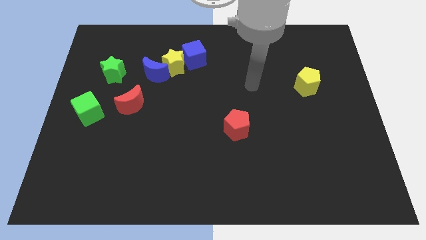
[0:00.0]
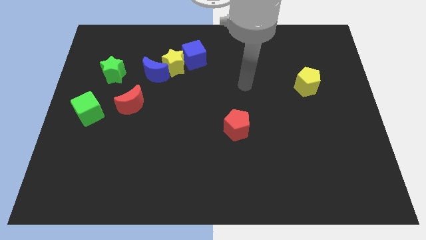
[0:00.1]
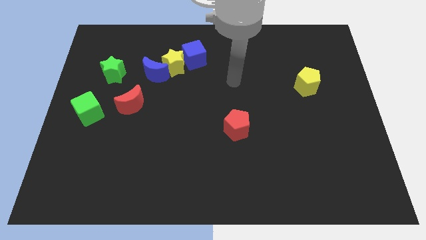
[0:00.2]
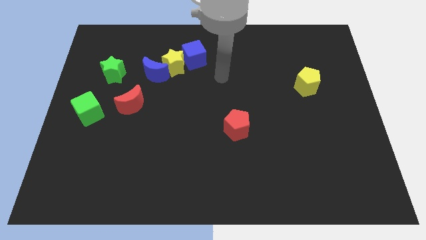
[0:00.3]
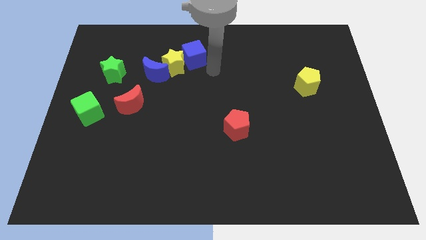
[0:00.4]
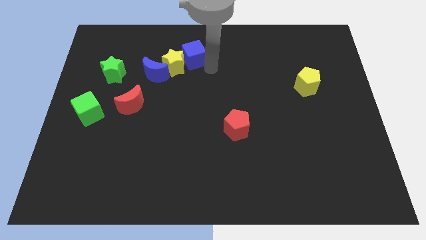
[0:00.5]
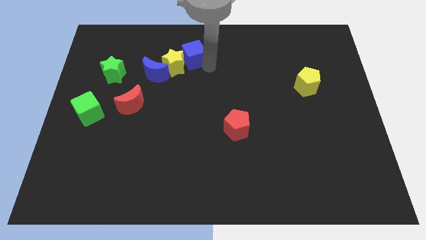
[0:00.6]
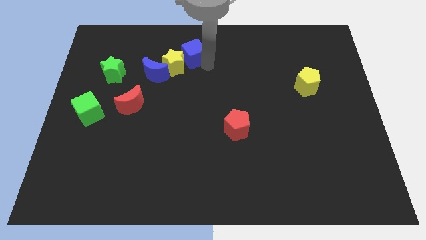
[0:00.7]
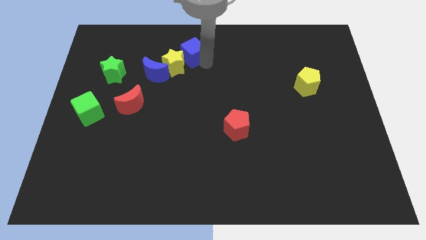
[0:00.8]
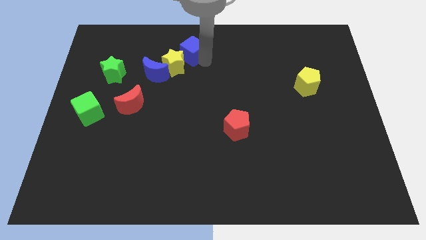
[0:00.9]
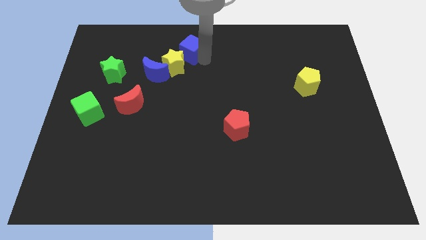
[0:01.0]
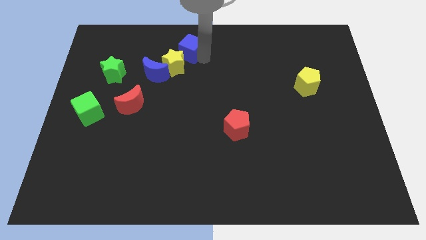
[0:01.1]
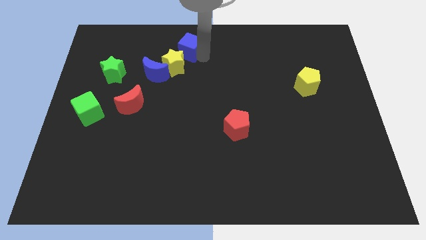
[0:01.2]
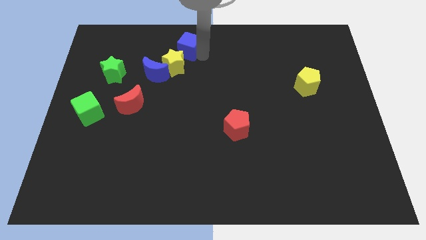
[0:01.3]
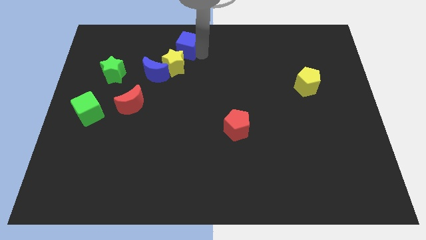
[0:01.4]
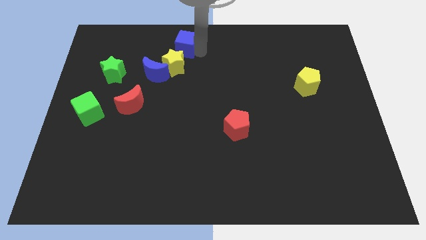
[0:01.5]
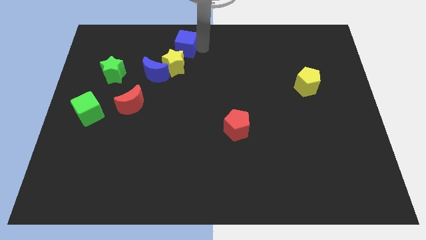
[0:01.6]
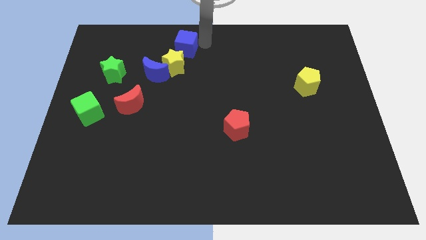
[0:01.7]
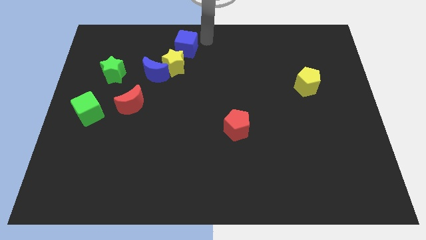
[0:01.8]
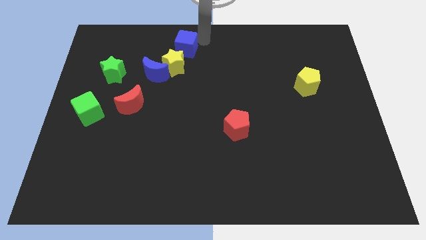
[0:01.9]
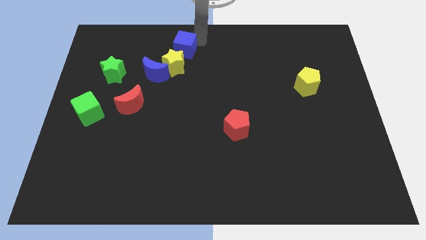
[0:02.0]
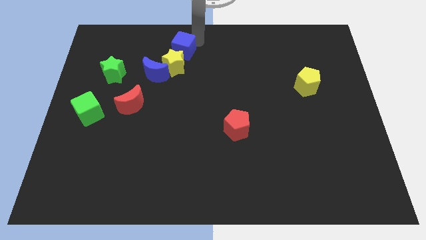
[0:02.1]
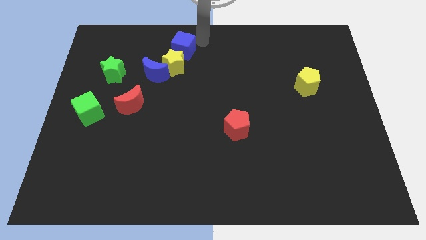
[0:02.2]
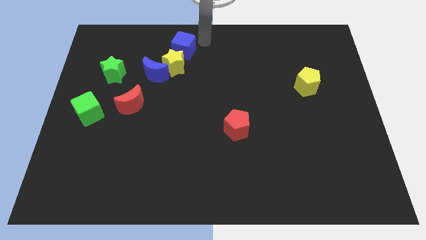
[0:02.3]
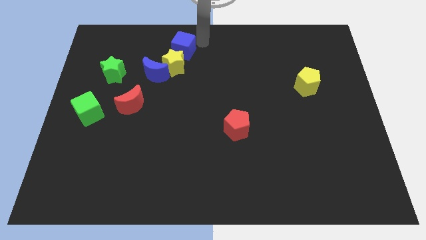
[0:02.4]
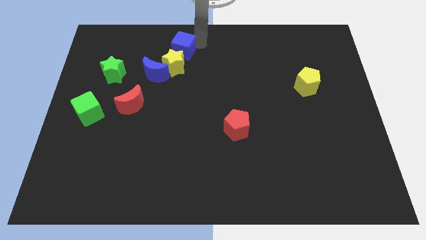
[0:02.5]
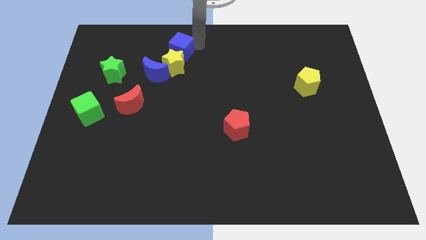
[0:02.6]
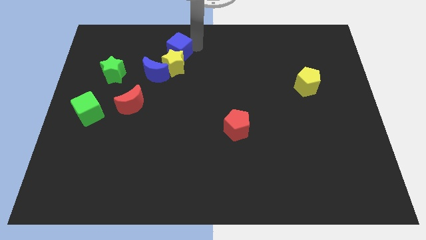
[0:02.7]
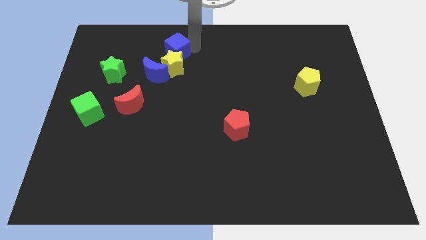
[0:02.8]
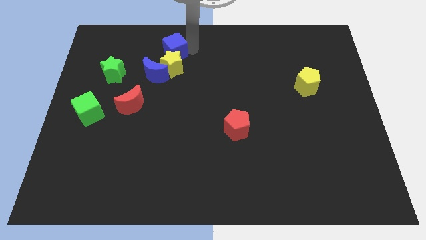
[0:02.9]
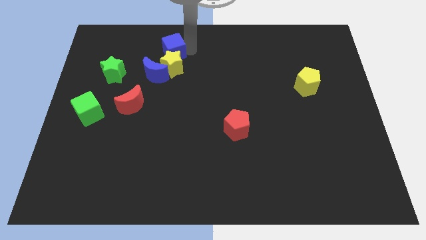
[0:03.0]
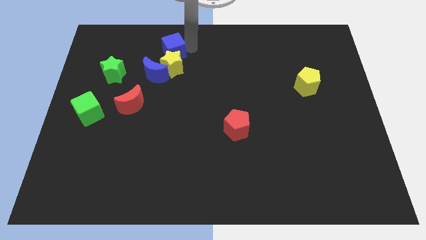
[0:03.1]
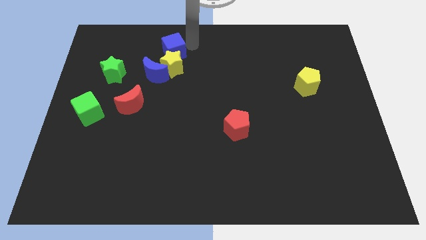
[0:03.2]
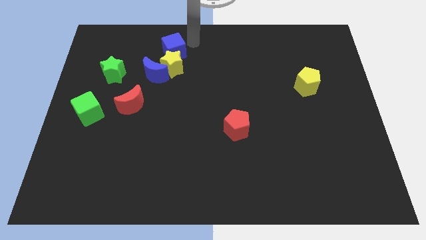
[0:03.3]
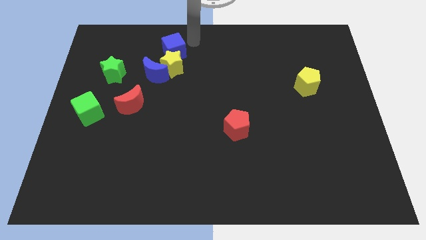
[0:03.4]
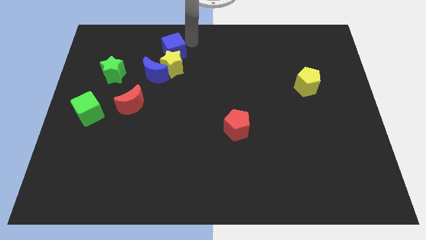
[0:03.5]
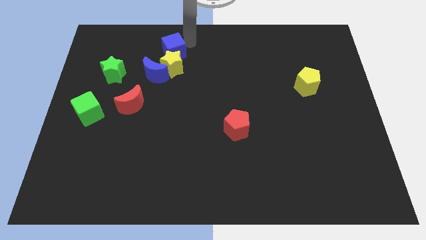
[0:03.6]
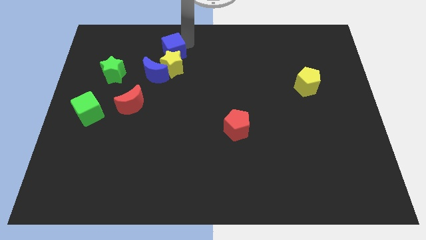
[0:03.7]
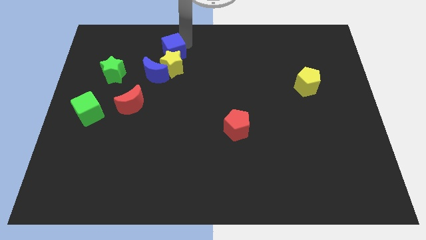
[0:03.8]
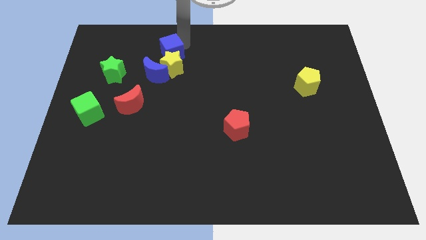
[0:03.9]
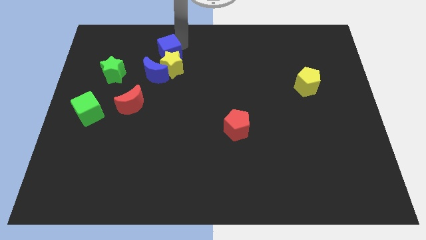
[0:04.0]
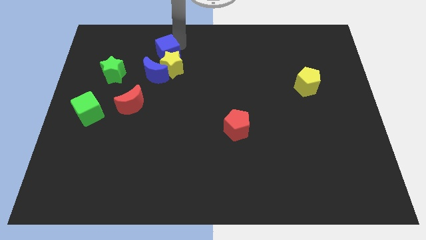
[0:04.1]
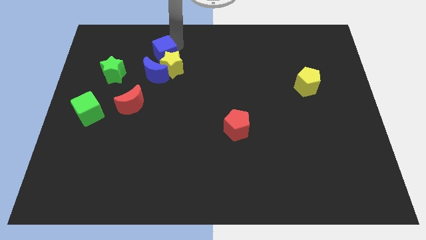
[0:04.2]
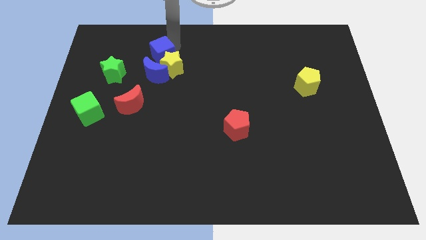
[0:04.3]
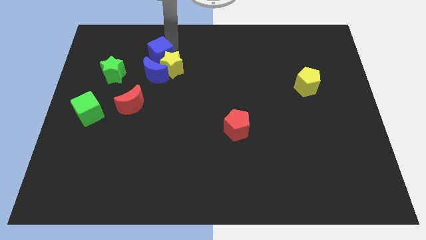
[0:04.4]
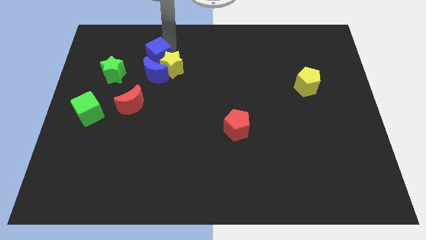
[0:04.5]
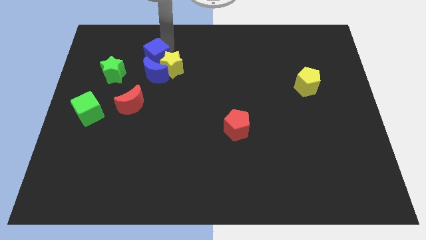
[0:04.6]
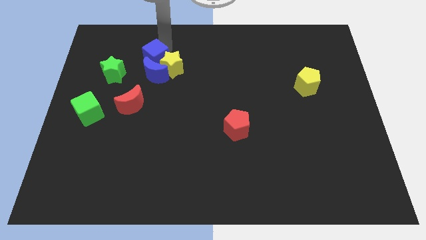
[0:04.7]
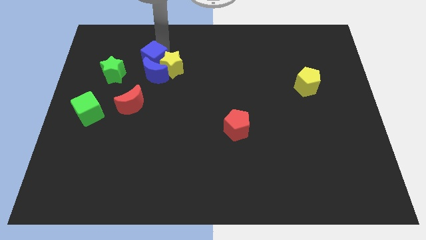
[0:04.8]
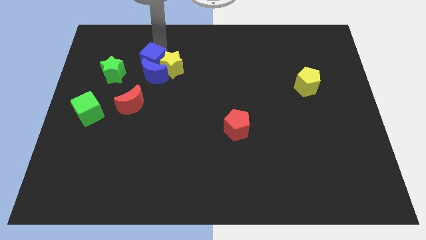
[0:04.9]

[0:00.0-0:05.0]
move the blue cube to the top side of the red moon

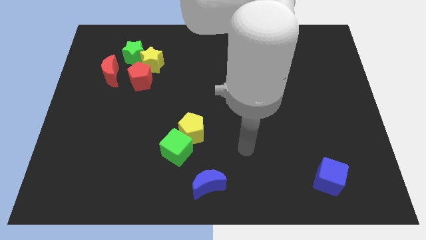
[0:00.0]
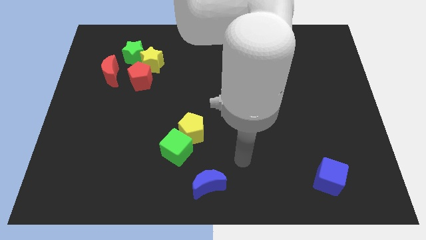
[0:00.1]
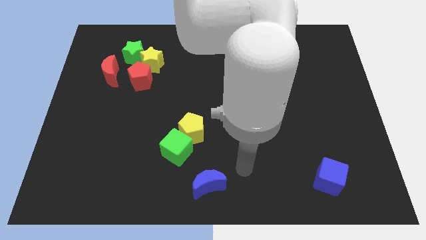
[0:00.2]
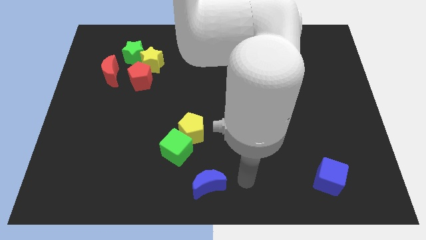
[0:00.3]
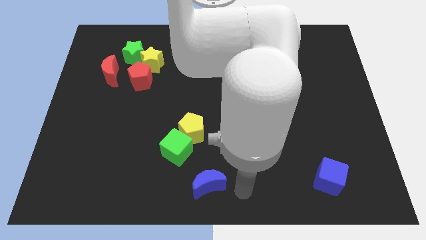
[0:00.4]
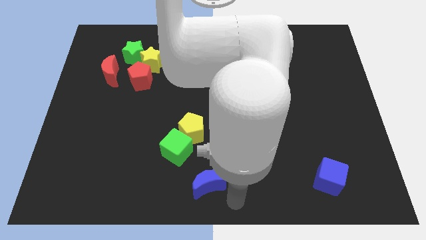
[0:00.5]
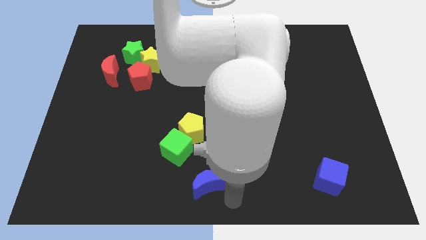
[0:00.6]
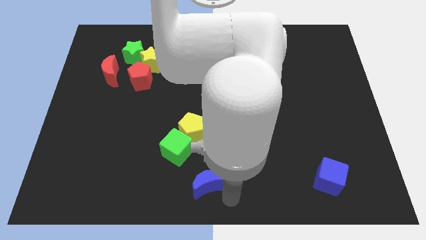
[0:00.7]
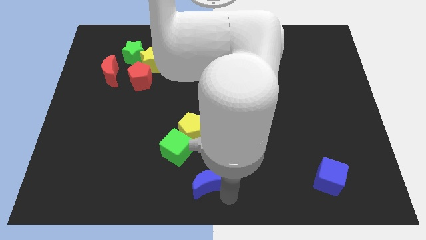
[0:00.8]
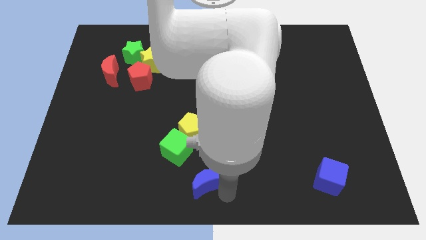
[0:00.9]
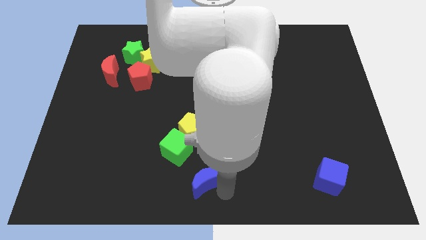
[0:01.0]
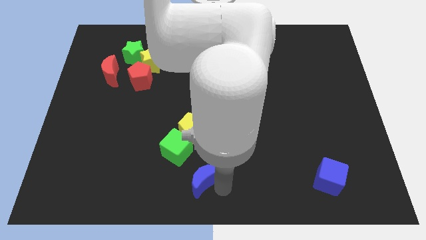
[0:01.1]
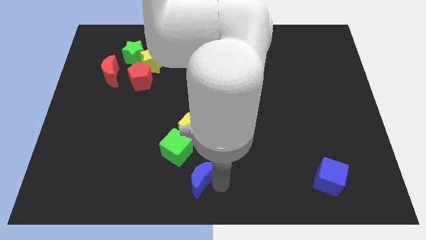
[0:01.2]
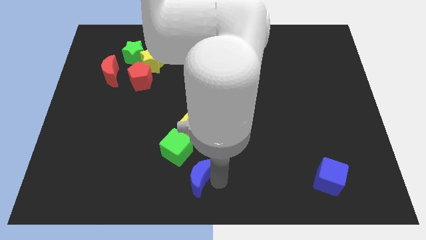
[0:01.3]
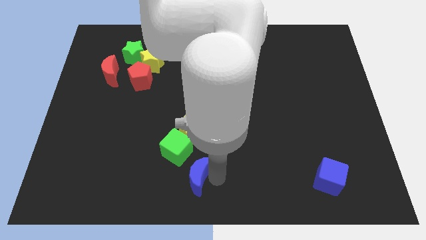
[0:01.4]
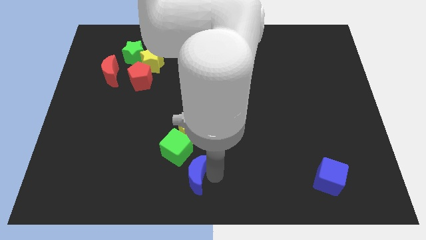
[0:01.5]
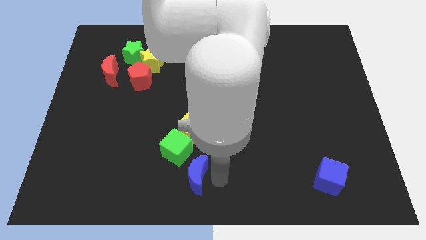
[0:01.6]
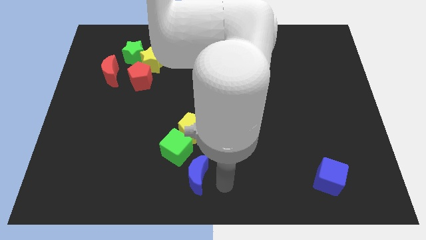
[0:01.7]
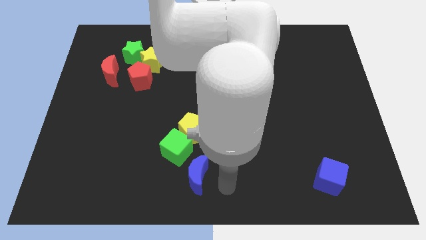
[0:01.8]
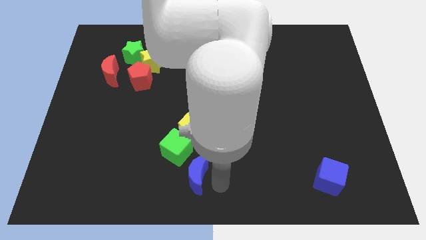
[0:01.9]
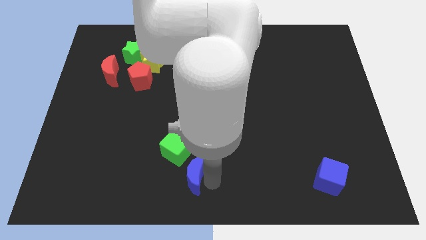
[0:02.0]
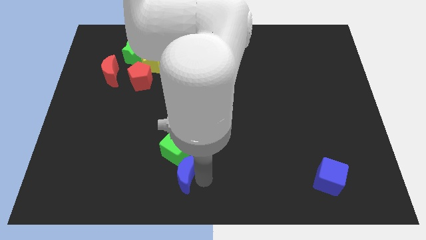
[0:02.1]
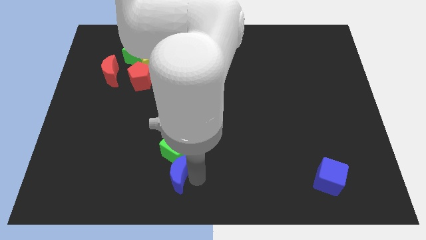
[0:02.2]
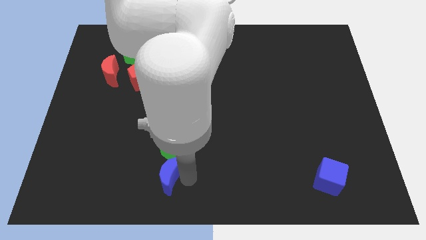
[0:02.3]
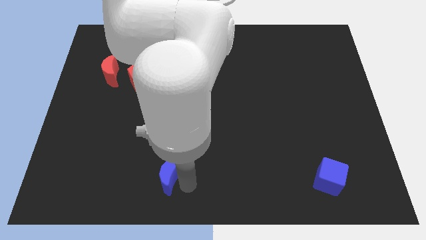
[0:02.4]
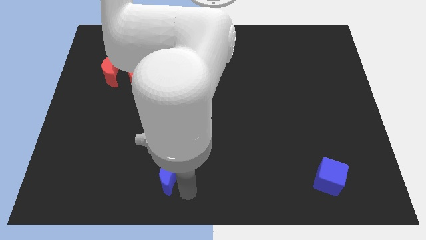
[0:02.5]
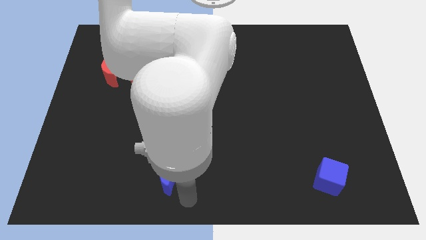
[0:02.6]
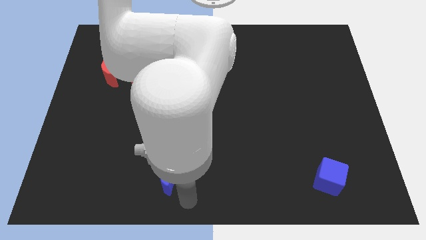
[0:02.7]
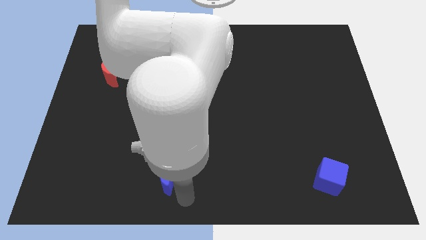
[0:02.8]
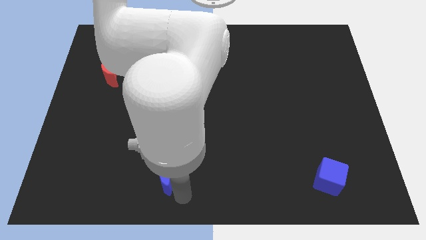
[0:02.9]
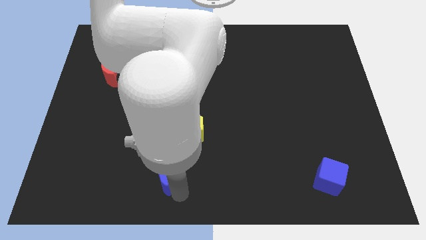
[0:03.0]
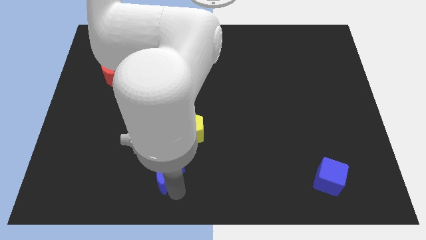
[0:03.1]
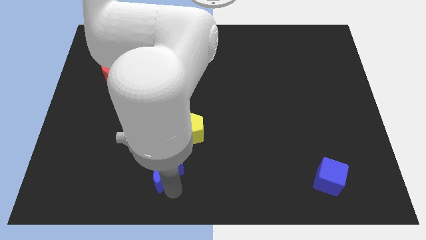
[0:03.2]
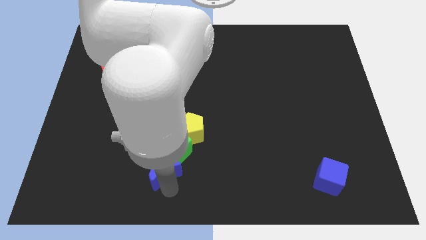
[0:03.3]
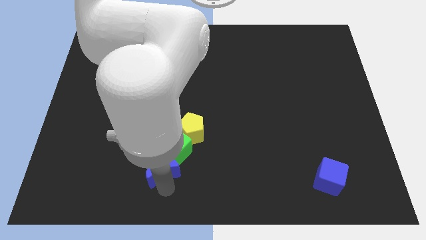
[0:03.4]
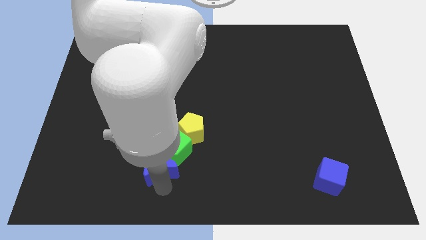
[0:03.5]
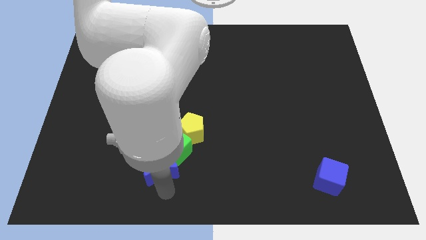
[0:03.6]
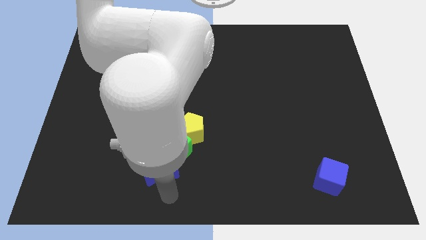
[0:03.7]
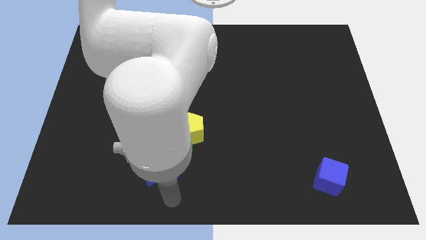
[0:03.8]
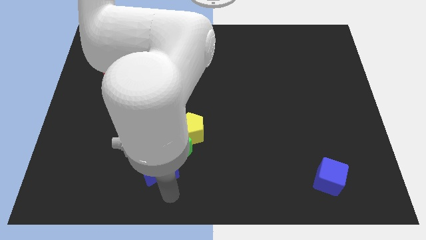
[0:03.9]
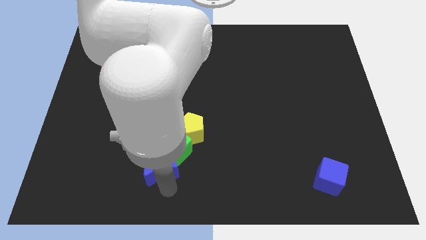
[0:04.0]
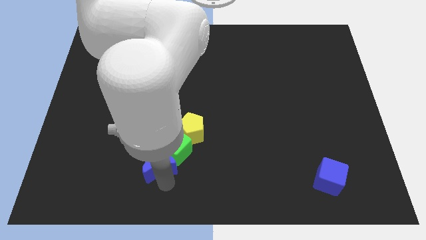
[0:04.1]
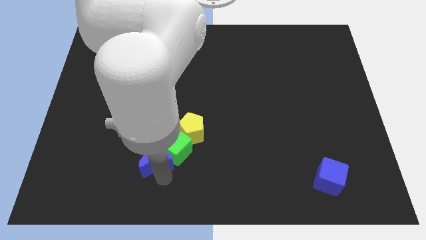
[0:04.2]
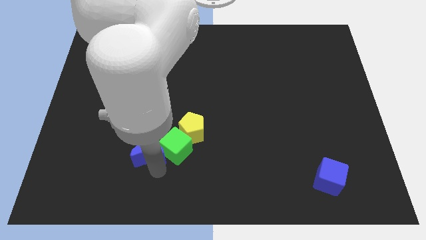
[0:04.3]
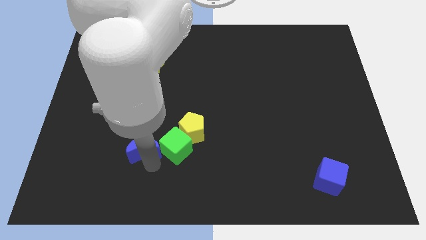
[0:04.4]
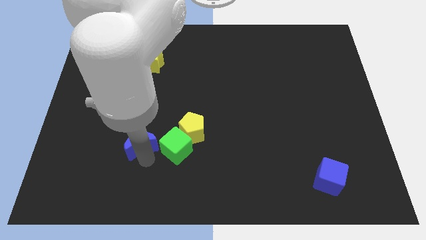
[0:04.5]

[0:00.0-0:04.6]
slide the blue moon to the top left of the green cube
